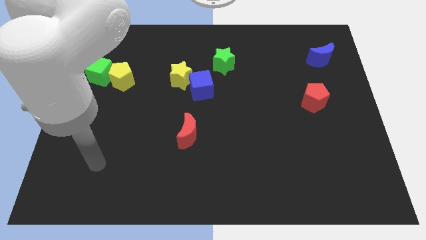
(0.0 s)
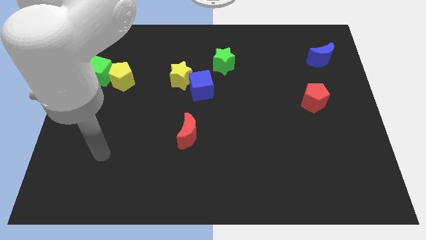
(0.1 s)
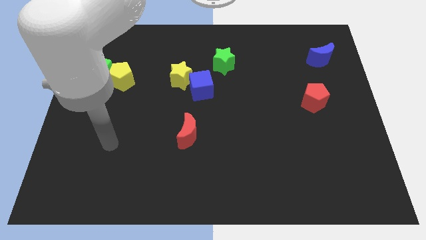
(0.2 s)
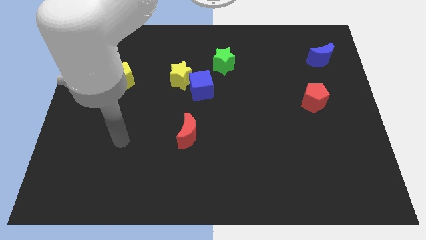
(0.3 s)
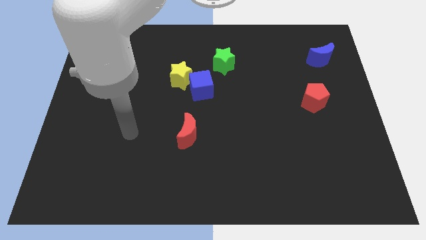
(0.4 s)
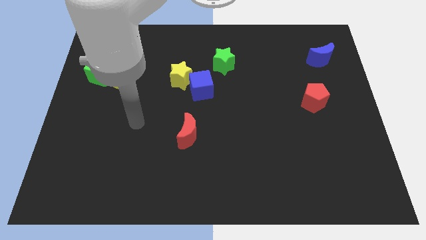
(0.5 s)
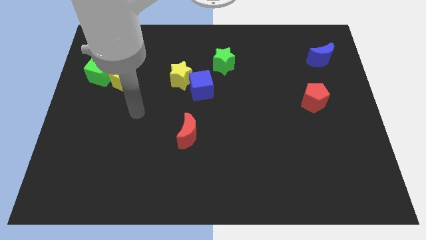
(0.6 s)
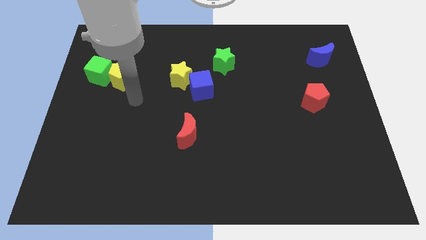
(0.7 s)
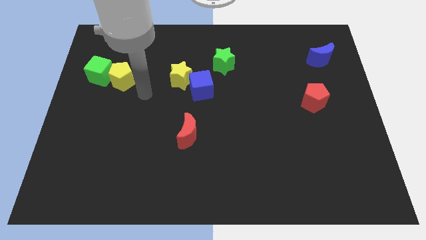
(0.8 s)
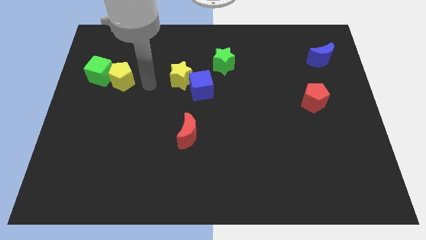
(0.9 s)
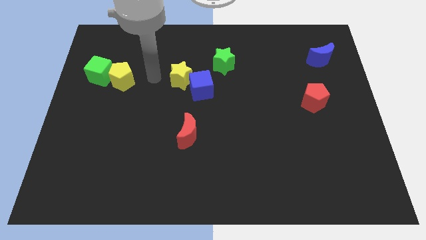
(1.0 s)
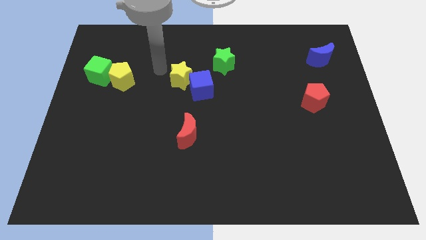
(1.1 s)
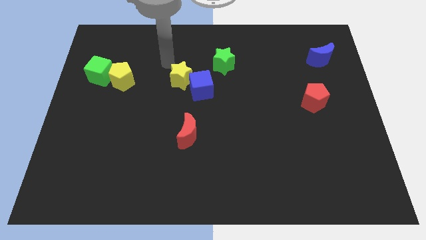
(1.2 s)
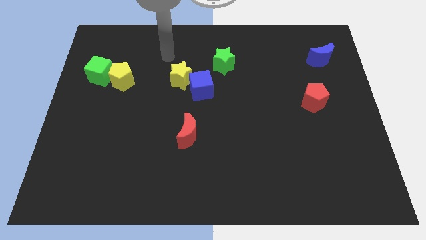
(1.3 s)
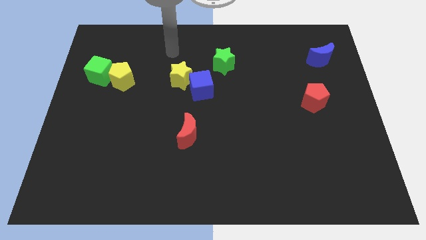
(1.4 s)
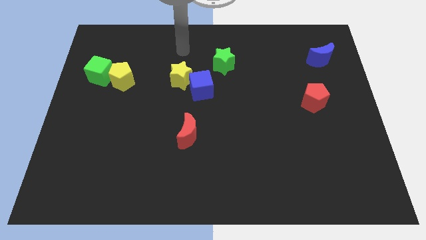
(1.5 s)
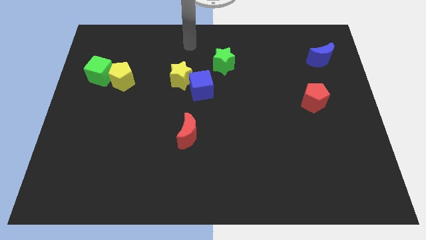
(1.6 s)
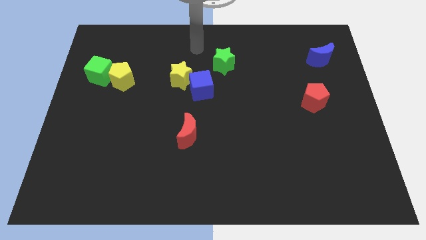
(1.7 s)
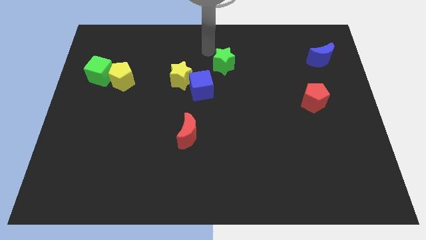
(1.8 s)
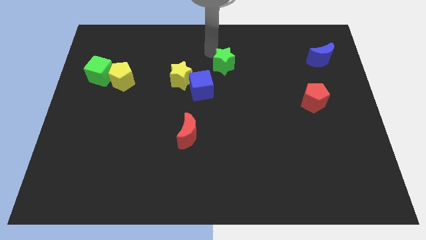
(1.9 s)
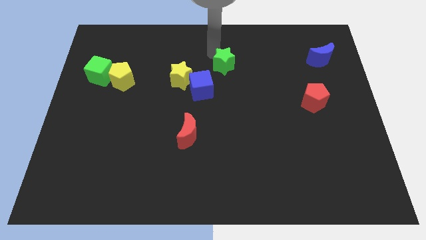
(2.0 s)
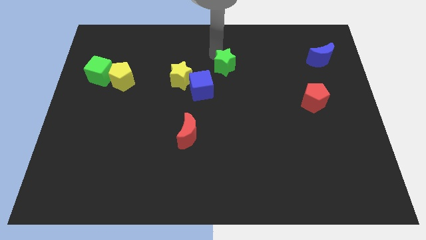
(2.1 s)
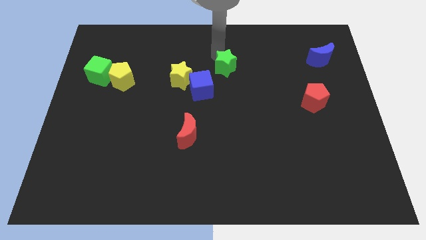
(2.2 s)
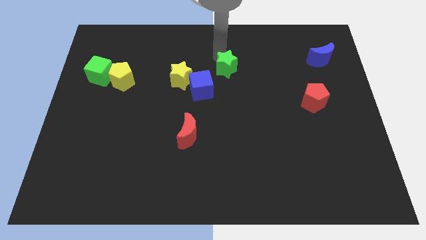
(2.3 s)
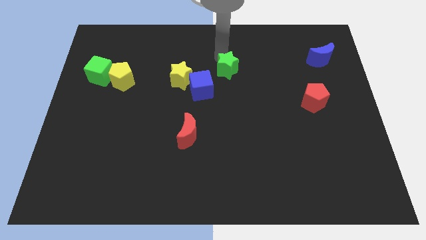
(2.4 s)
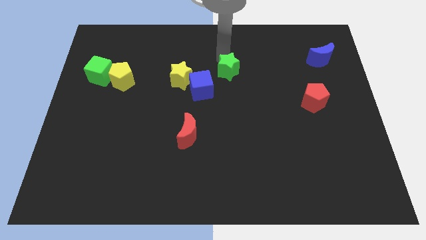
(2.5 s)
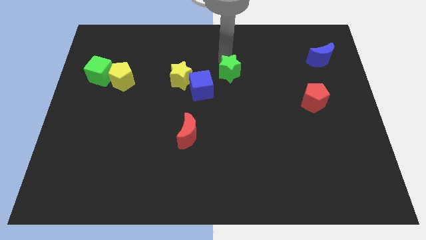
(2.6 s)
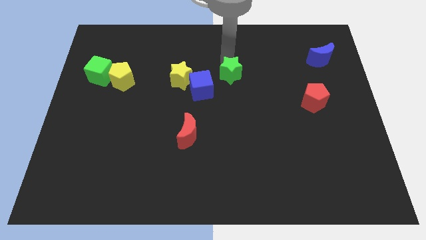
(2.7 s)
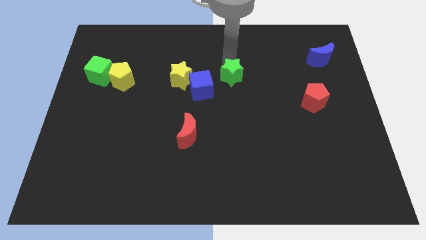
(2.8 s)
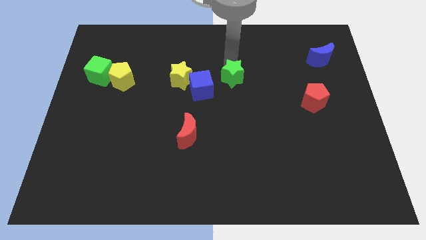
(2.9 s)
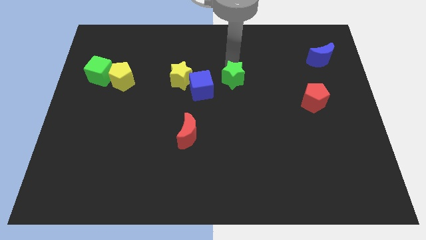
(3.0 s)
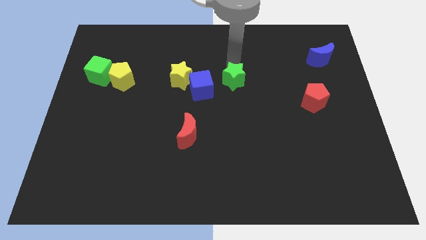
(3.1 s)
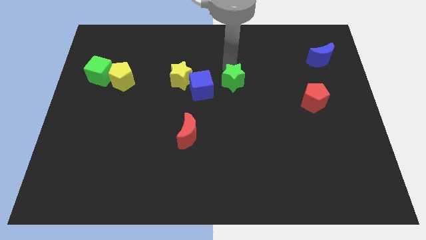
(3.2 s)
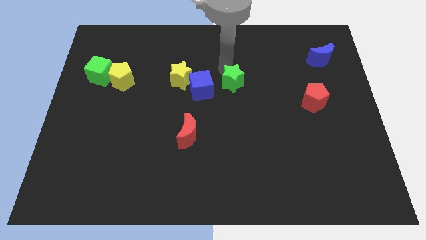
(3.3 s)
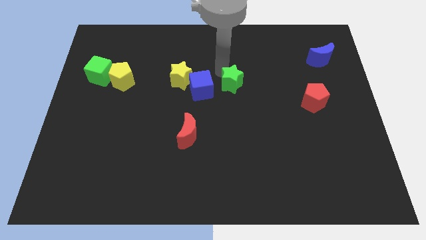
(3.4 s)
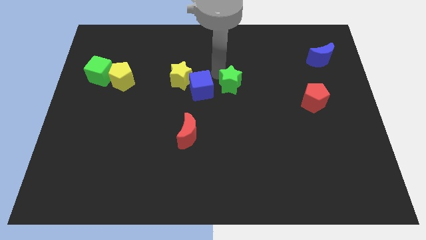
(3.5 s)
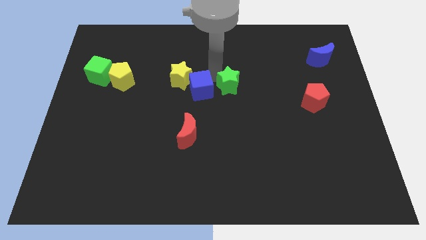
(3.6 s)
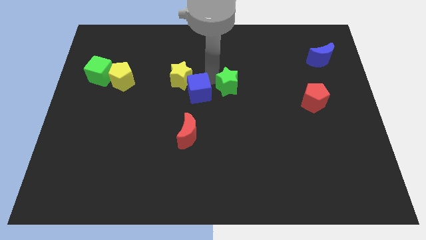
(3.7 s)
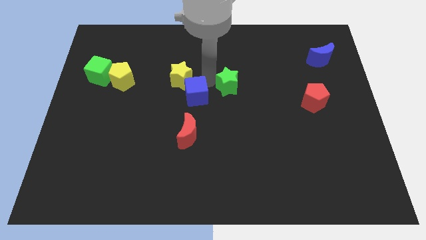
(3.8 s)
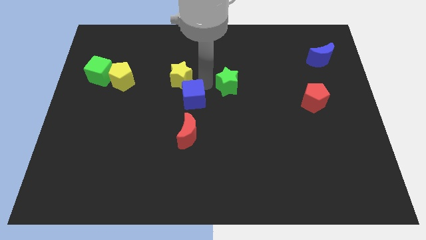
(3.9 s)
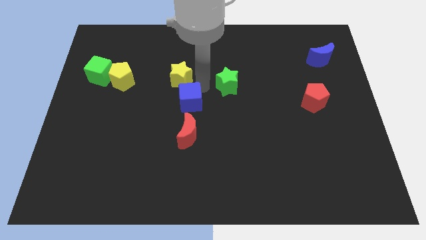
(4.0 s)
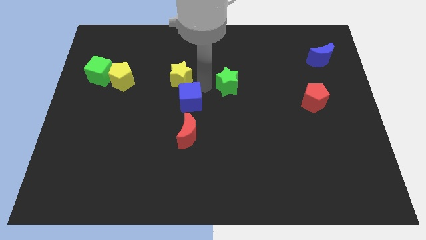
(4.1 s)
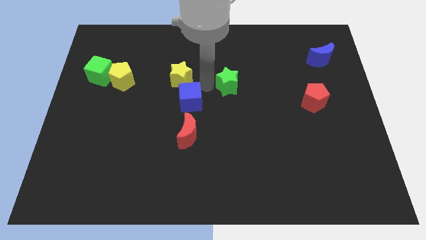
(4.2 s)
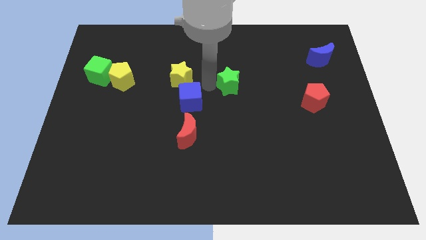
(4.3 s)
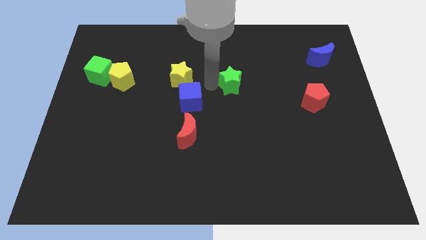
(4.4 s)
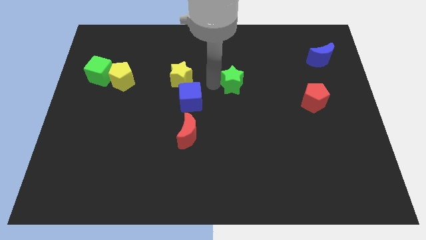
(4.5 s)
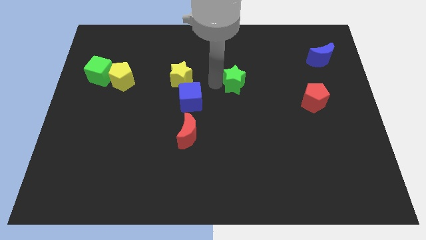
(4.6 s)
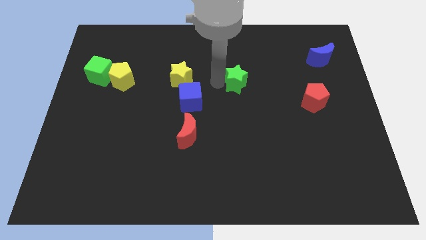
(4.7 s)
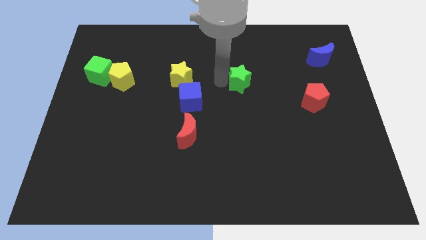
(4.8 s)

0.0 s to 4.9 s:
push the green star down and to the right a little bit

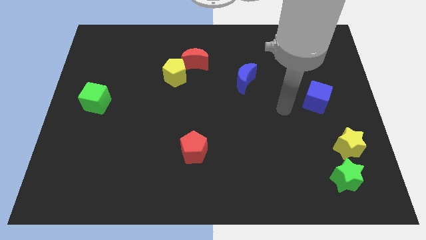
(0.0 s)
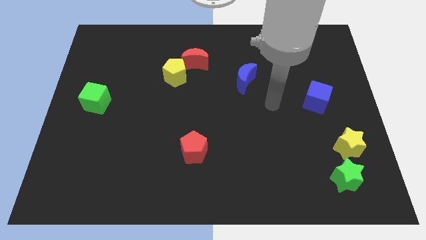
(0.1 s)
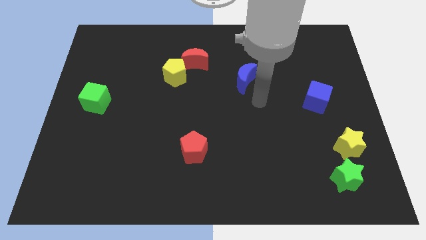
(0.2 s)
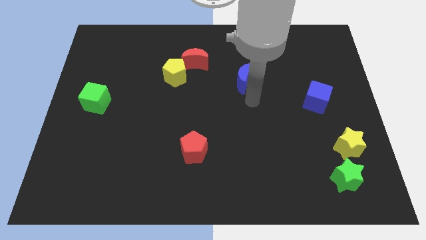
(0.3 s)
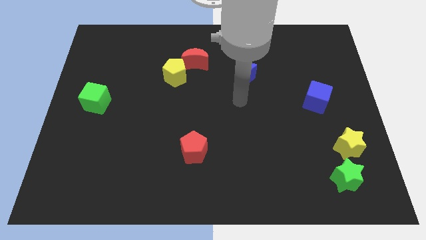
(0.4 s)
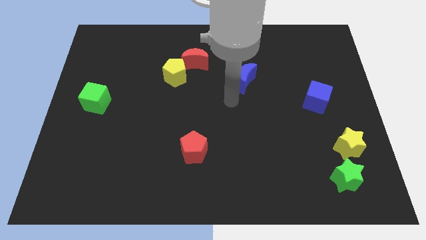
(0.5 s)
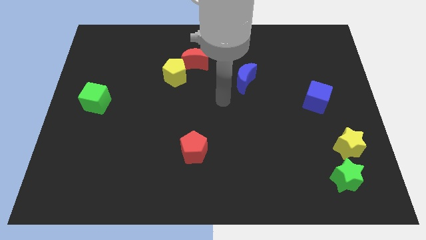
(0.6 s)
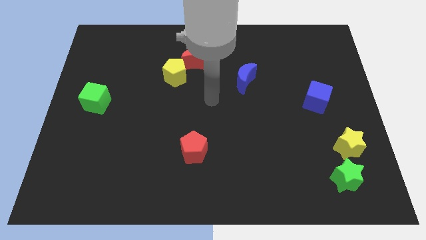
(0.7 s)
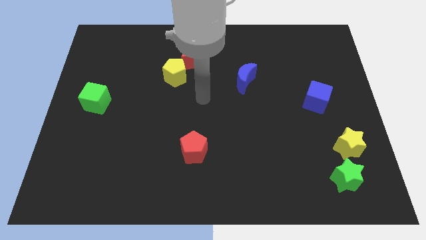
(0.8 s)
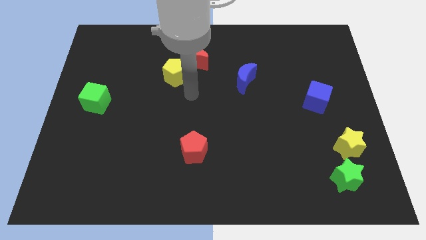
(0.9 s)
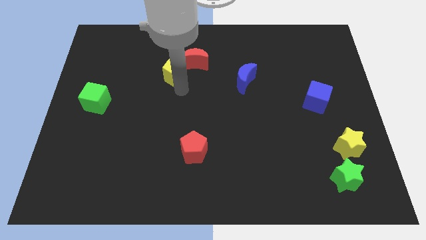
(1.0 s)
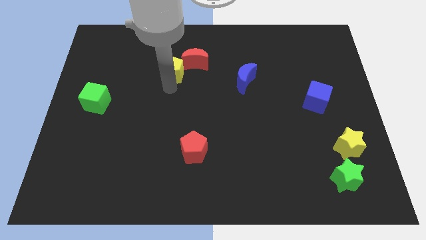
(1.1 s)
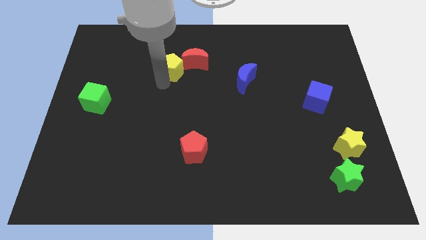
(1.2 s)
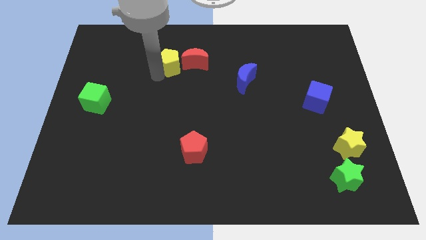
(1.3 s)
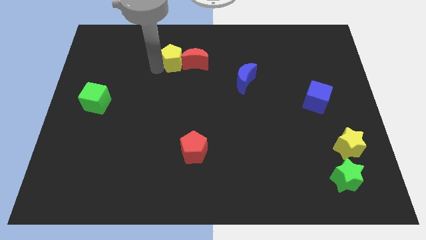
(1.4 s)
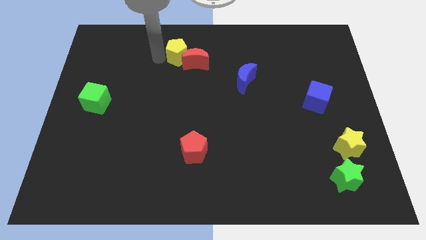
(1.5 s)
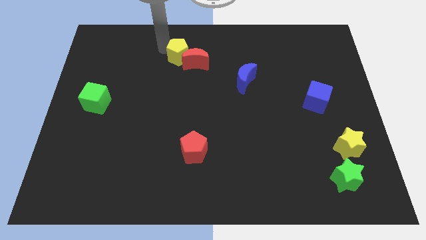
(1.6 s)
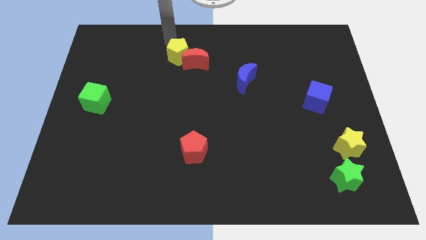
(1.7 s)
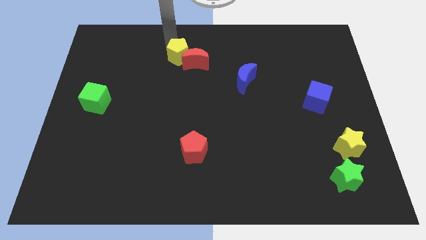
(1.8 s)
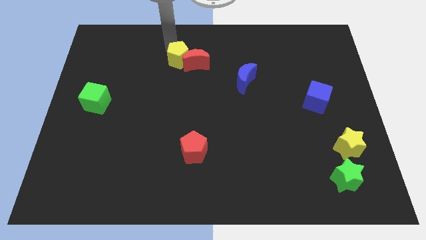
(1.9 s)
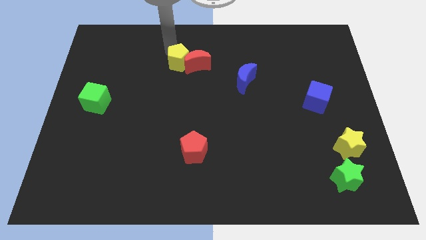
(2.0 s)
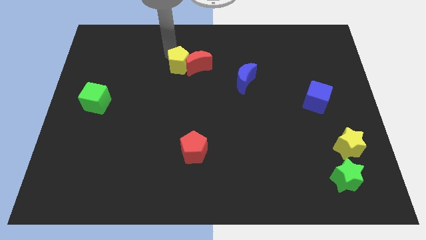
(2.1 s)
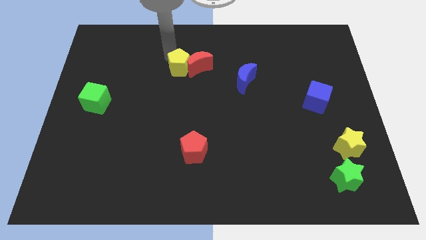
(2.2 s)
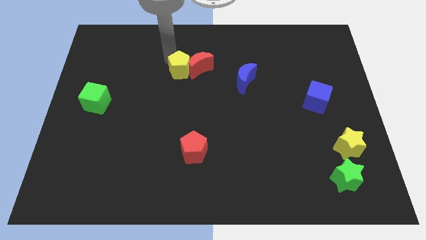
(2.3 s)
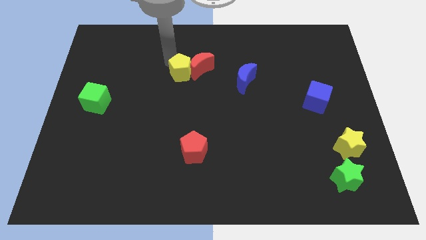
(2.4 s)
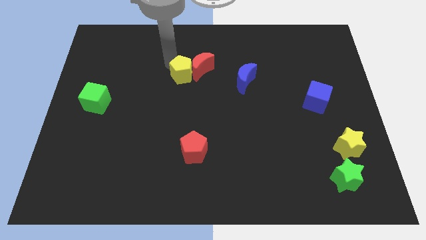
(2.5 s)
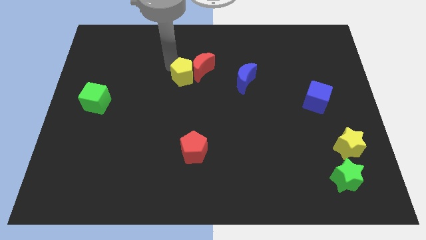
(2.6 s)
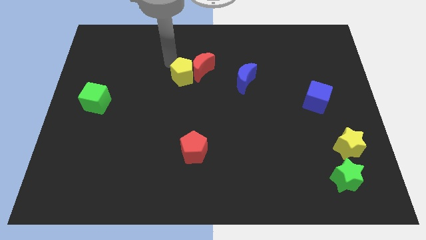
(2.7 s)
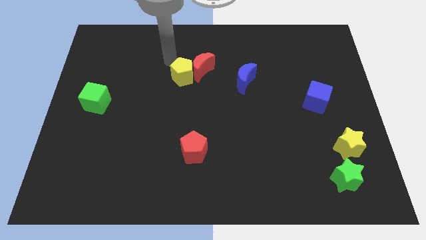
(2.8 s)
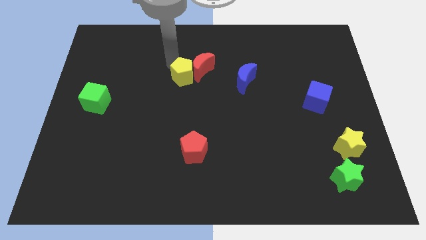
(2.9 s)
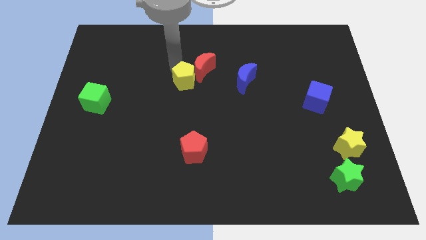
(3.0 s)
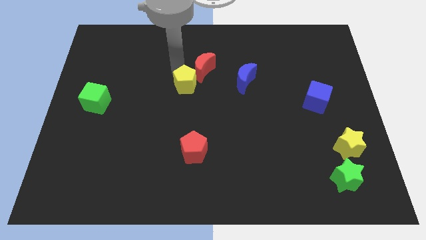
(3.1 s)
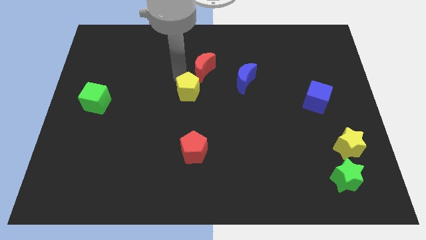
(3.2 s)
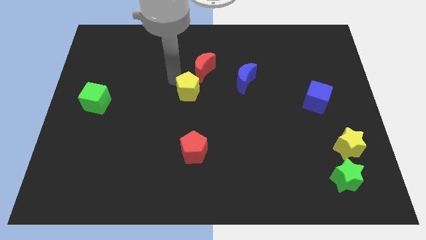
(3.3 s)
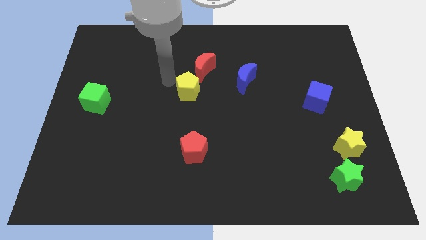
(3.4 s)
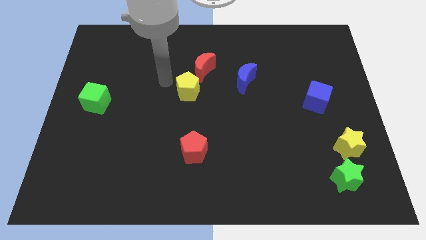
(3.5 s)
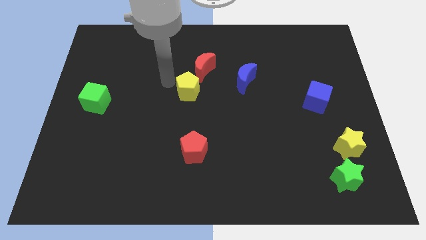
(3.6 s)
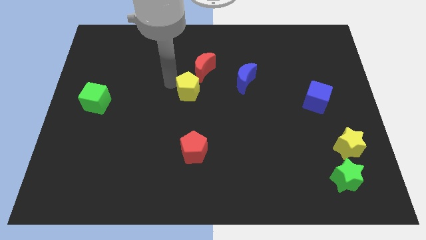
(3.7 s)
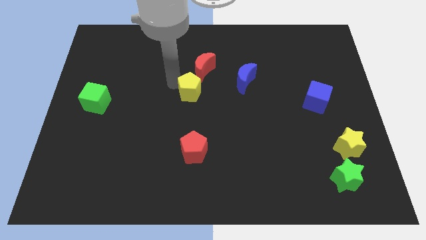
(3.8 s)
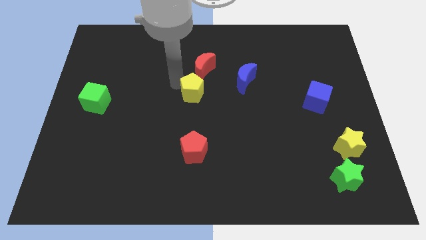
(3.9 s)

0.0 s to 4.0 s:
slide the yellow pentagon somewhat downwards and to the right diagonally
